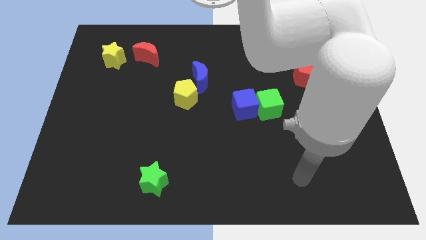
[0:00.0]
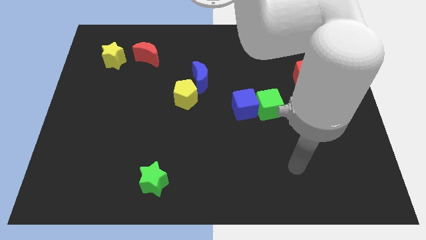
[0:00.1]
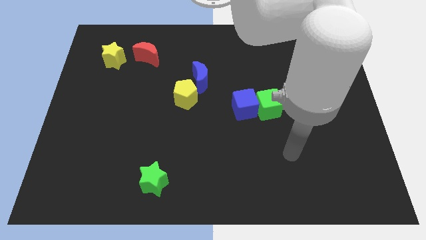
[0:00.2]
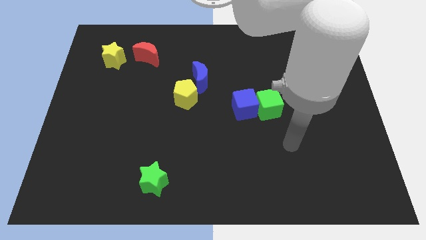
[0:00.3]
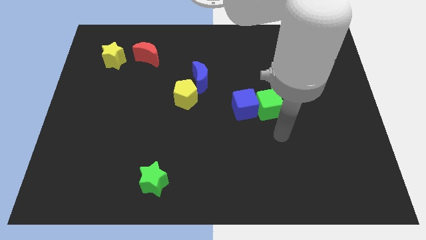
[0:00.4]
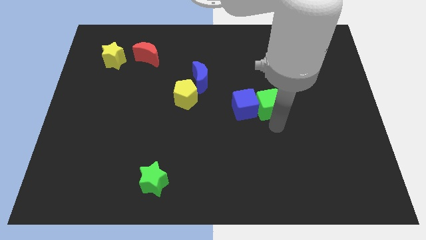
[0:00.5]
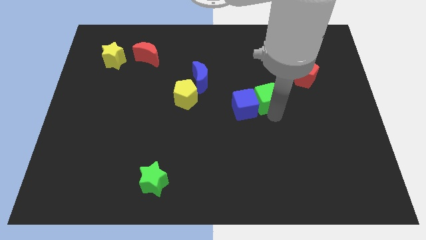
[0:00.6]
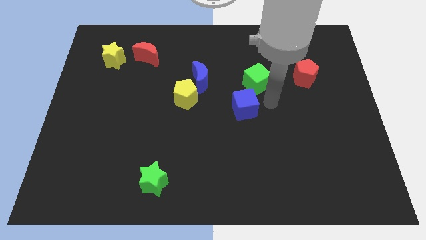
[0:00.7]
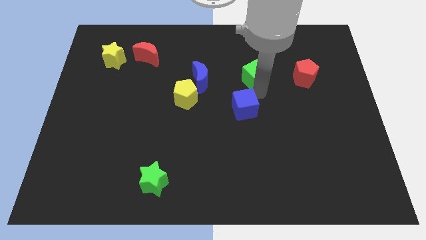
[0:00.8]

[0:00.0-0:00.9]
pull the blue cube apart from the green cube

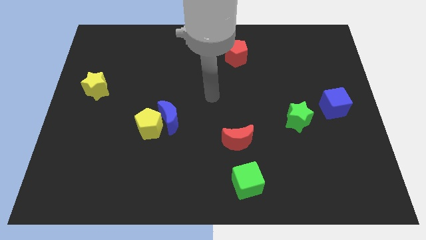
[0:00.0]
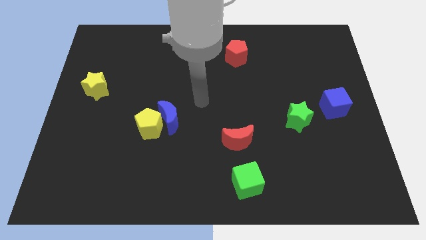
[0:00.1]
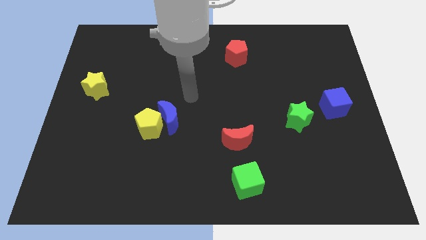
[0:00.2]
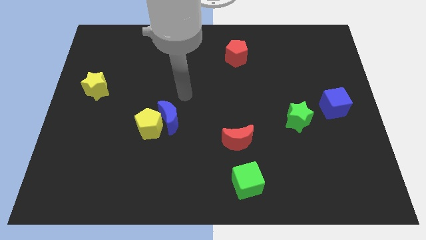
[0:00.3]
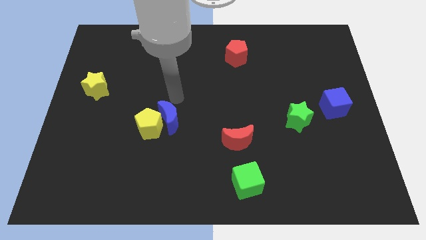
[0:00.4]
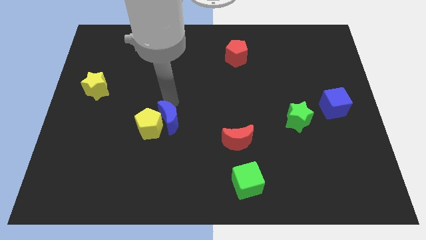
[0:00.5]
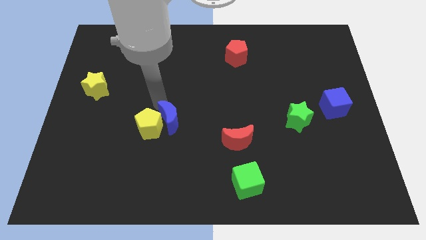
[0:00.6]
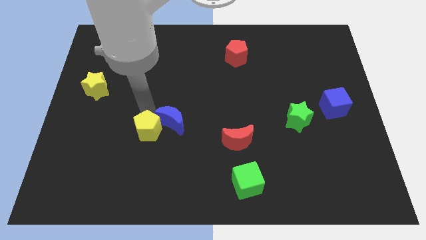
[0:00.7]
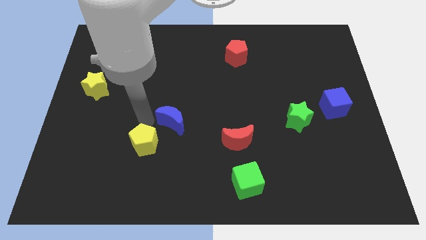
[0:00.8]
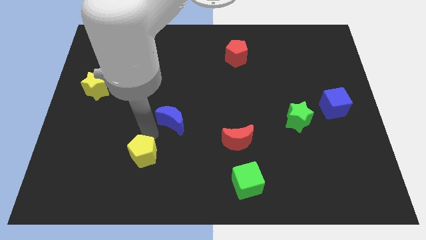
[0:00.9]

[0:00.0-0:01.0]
move the blue moon away from the yellow pentagon

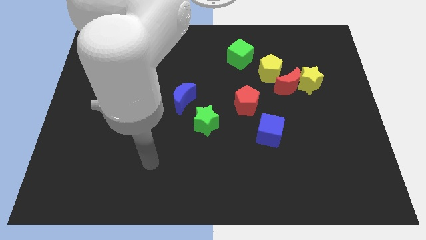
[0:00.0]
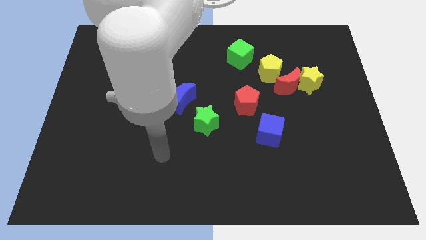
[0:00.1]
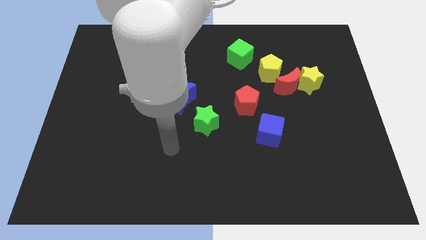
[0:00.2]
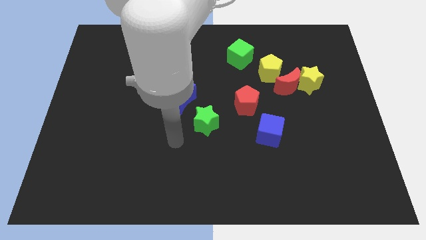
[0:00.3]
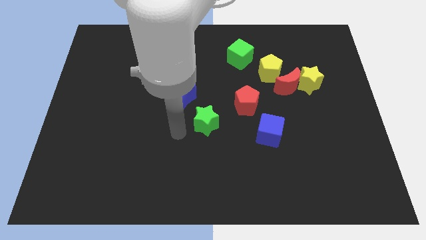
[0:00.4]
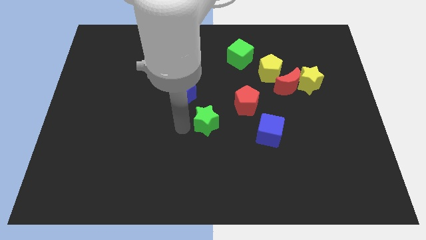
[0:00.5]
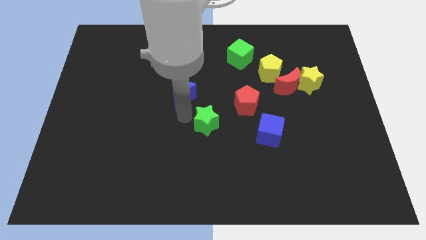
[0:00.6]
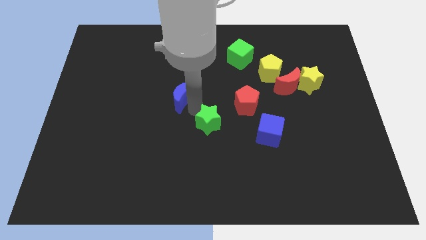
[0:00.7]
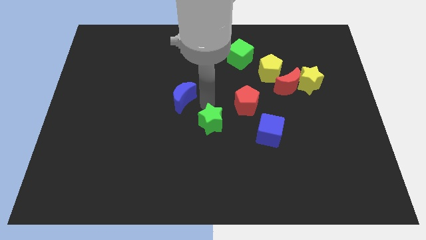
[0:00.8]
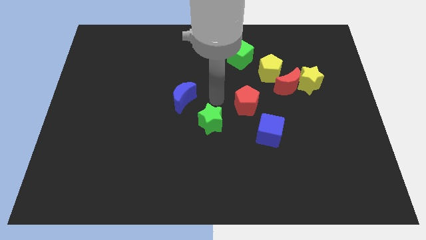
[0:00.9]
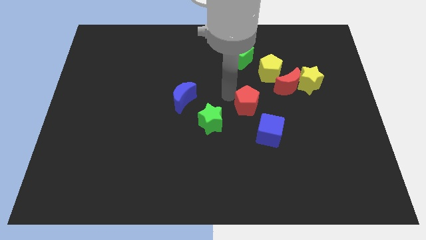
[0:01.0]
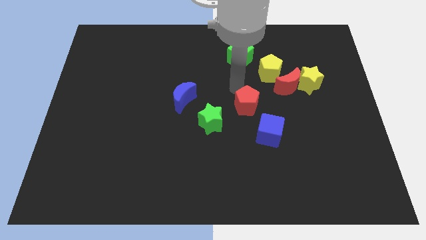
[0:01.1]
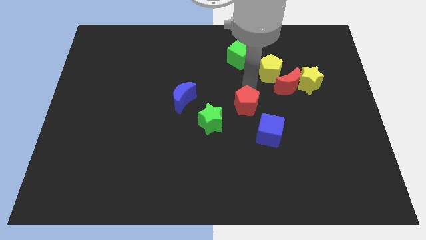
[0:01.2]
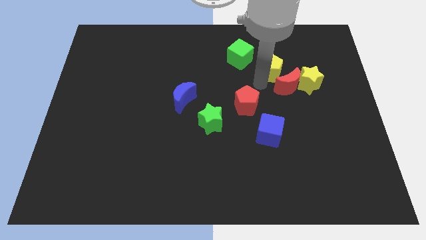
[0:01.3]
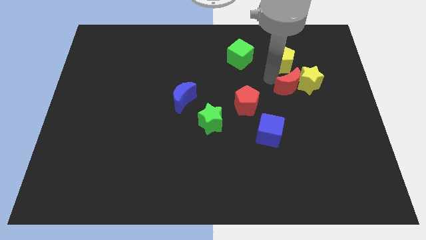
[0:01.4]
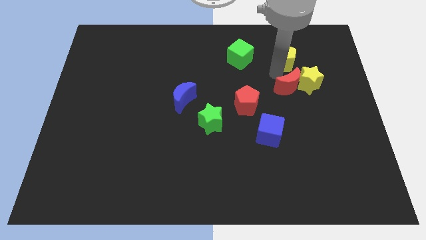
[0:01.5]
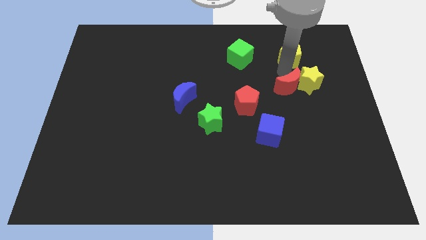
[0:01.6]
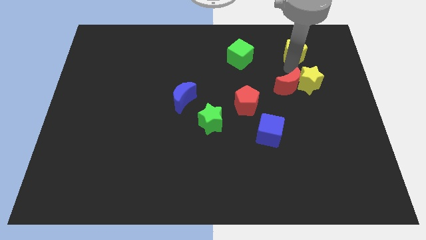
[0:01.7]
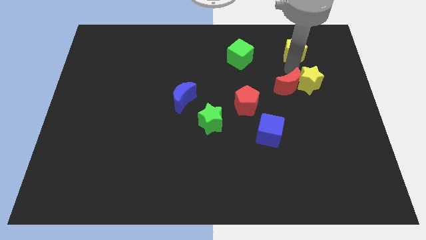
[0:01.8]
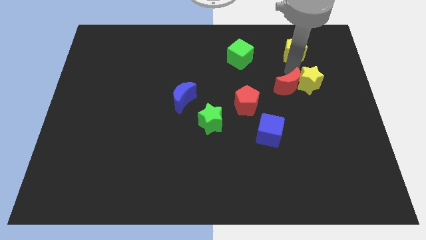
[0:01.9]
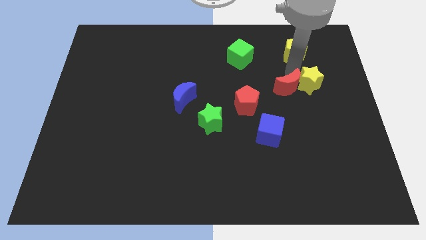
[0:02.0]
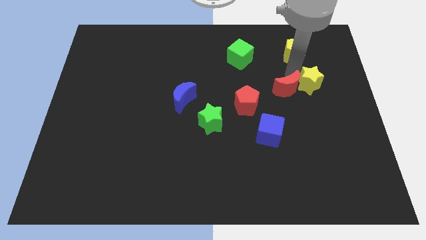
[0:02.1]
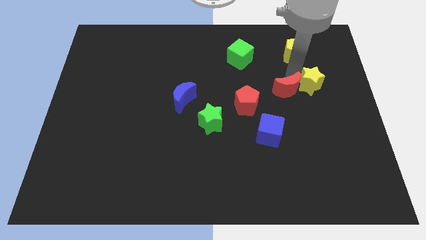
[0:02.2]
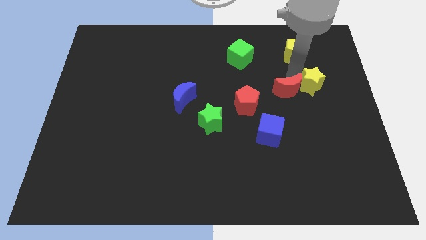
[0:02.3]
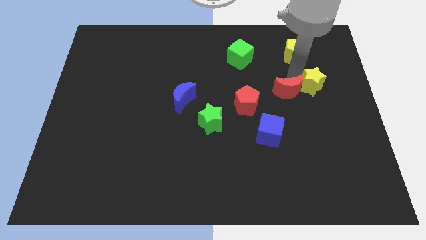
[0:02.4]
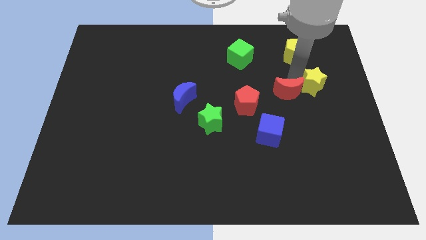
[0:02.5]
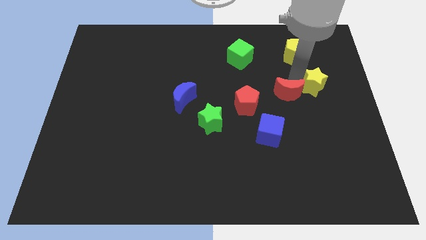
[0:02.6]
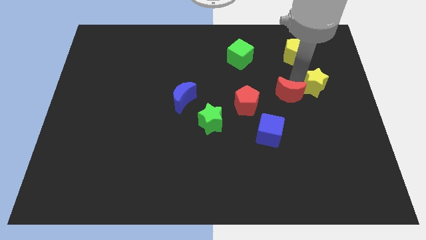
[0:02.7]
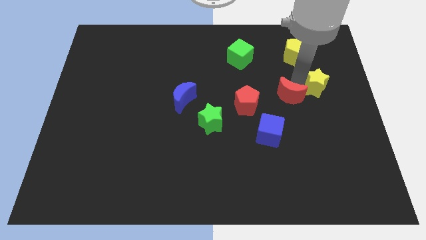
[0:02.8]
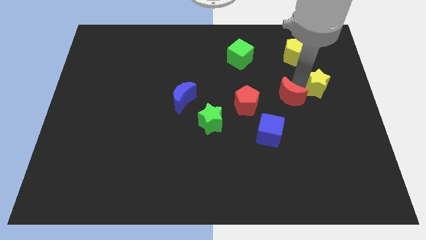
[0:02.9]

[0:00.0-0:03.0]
separate the red moon from the yellow star and yellow pentagon

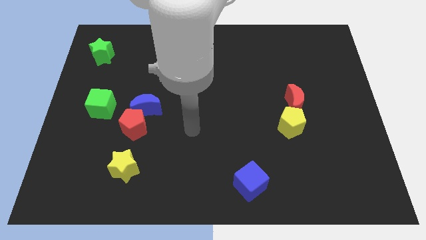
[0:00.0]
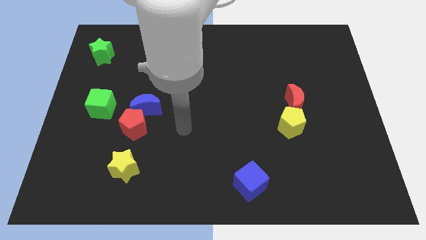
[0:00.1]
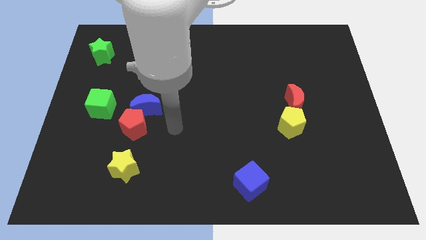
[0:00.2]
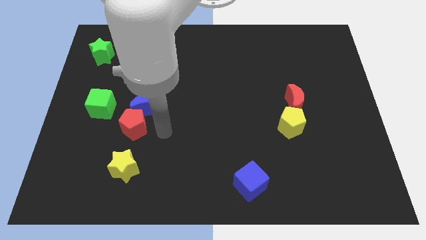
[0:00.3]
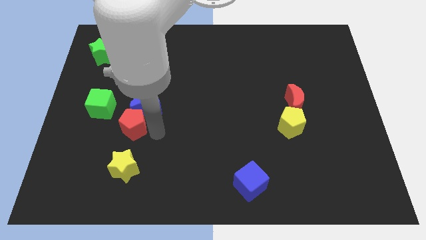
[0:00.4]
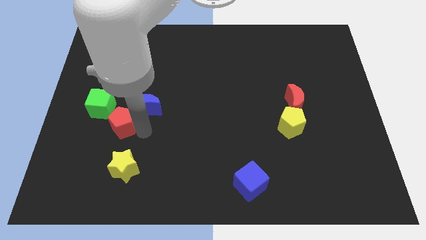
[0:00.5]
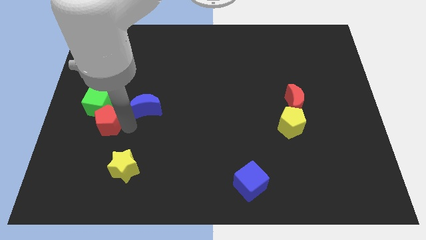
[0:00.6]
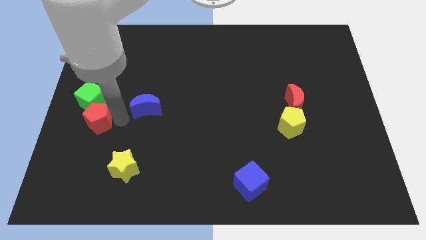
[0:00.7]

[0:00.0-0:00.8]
pull the blue moon apart from the red pentagon

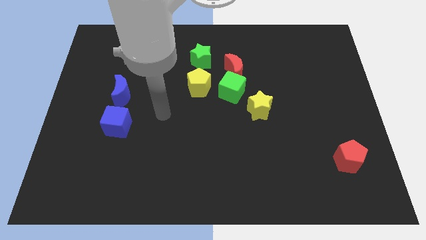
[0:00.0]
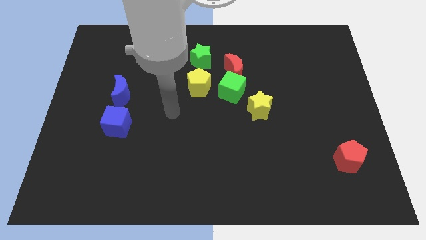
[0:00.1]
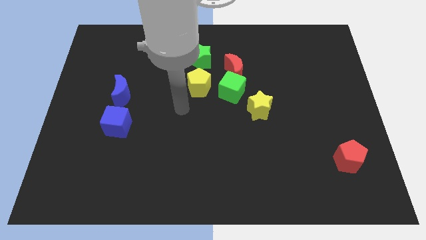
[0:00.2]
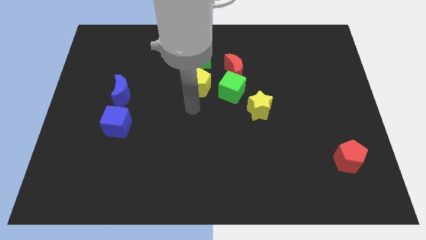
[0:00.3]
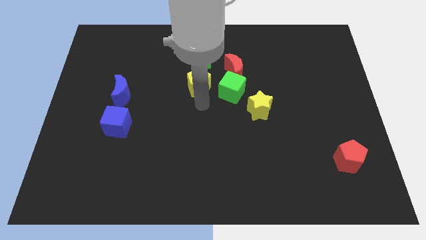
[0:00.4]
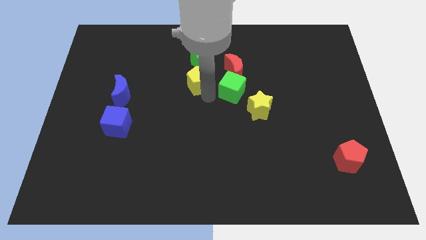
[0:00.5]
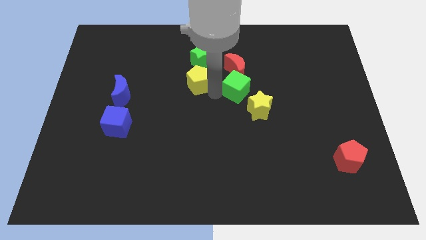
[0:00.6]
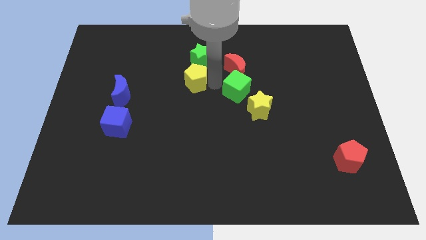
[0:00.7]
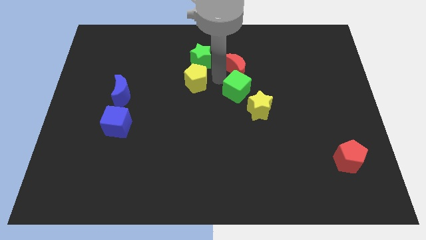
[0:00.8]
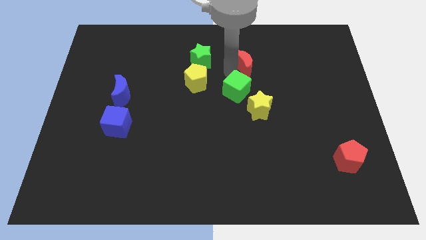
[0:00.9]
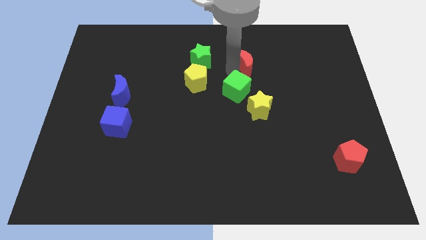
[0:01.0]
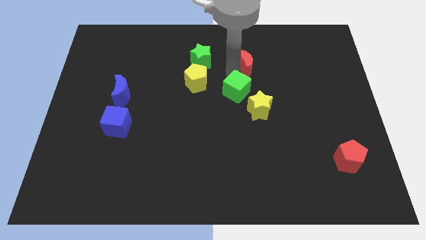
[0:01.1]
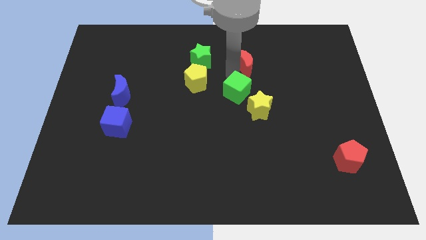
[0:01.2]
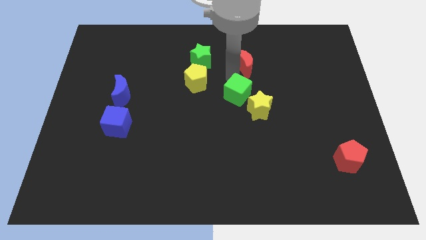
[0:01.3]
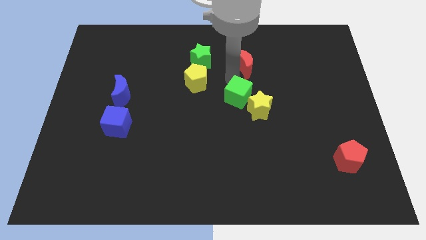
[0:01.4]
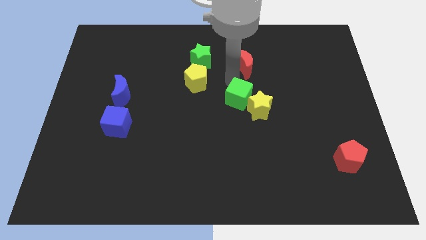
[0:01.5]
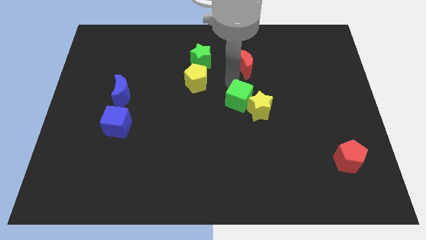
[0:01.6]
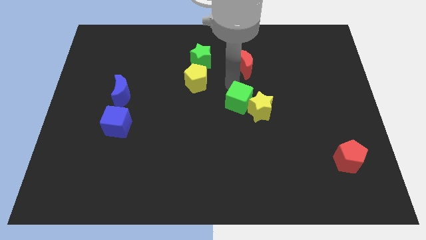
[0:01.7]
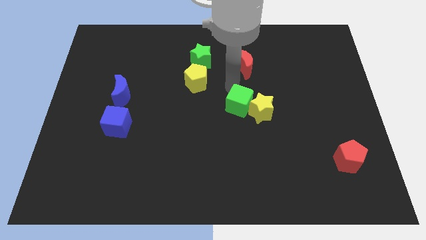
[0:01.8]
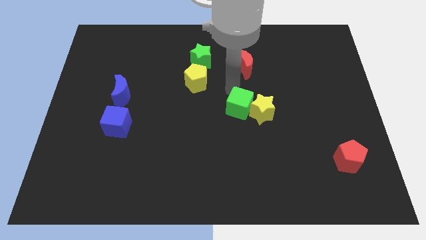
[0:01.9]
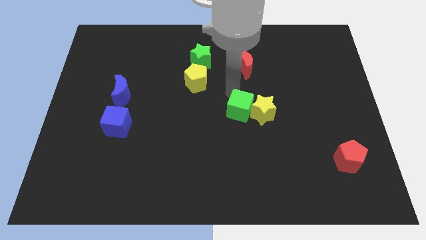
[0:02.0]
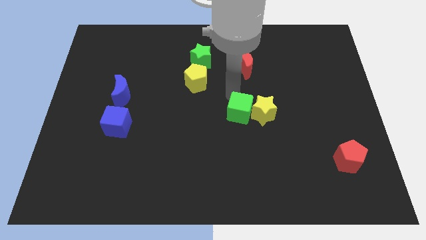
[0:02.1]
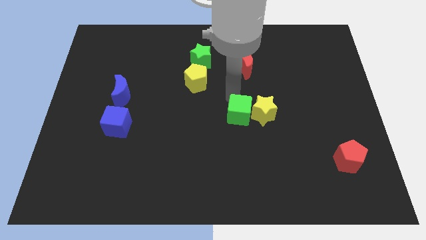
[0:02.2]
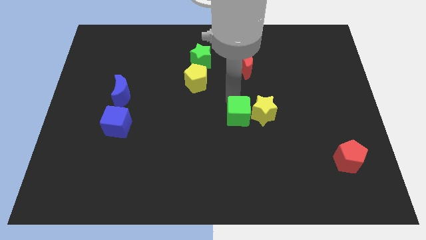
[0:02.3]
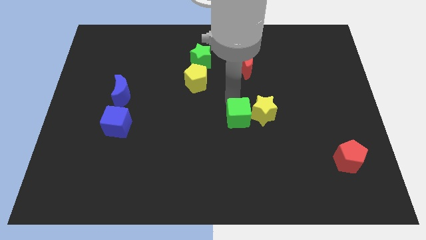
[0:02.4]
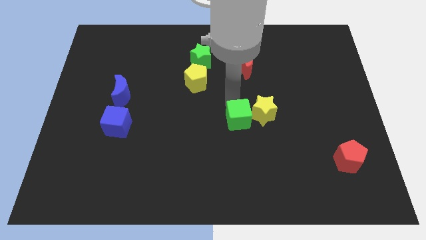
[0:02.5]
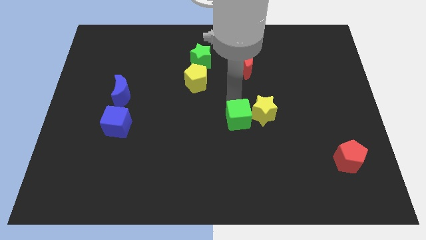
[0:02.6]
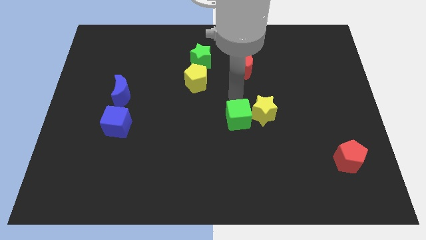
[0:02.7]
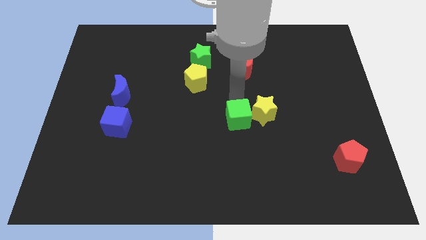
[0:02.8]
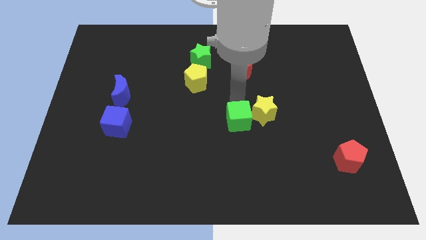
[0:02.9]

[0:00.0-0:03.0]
separate the green cube from the red moon, yellow pentagon, and yellow star

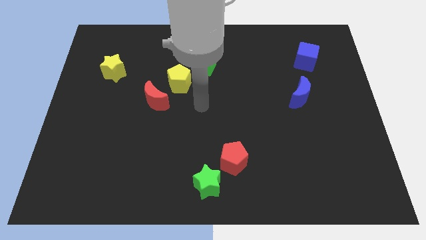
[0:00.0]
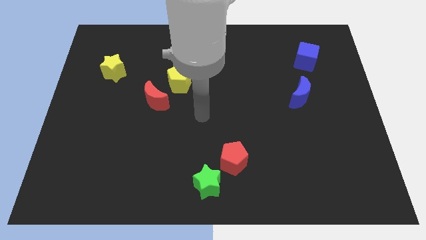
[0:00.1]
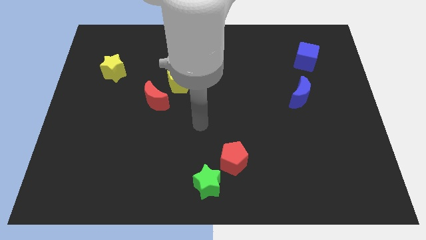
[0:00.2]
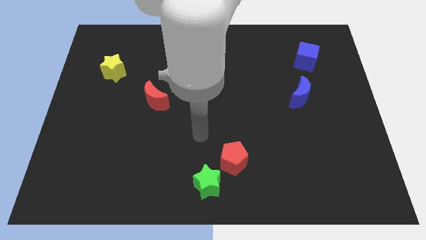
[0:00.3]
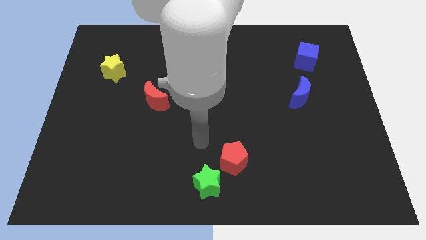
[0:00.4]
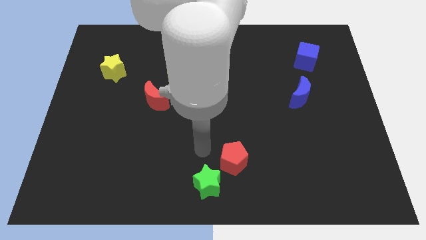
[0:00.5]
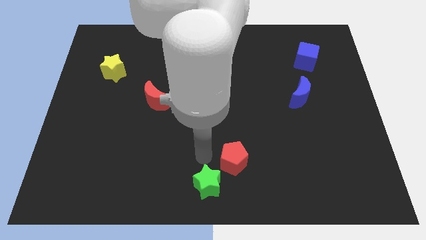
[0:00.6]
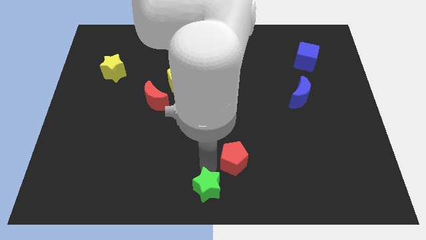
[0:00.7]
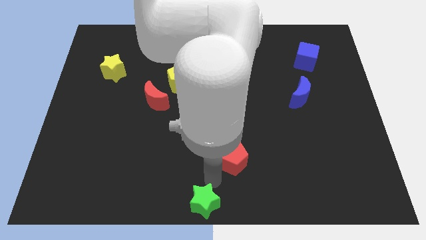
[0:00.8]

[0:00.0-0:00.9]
move the red pentagon away from the green star
